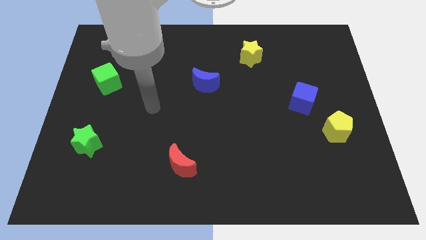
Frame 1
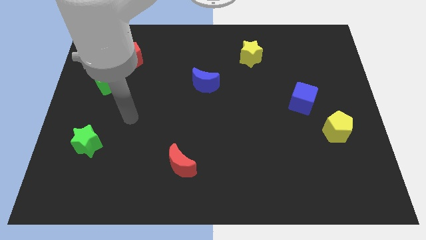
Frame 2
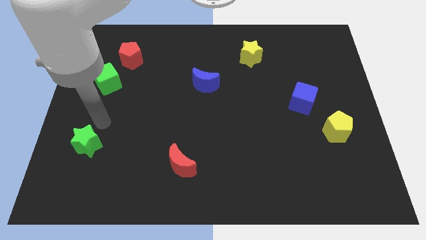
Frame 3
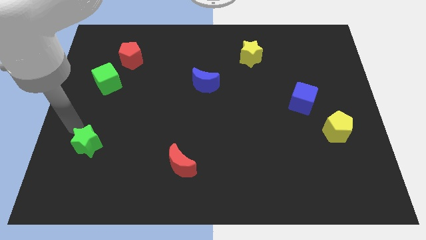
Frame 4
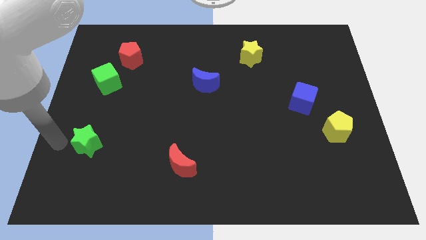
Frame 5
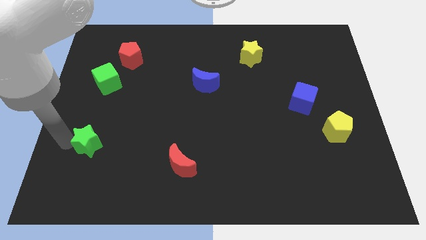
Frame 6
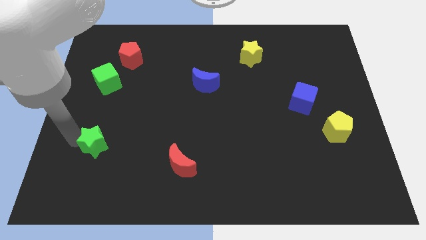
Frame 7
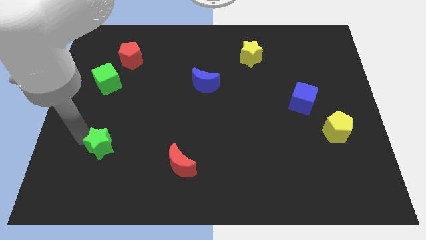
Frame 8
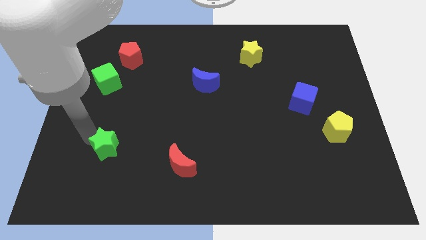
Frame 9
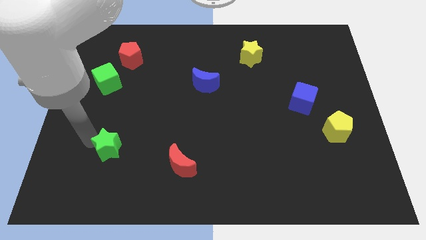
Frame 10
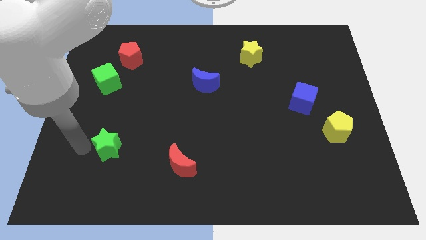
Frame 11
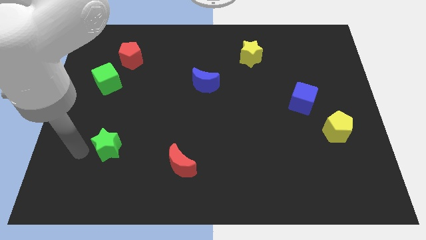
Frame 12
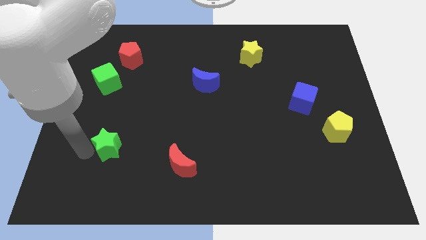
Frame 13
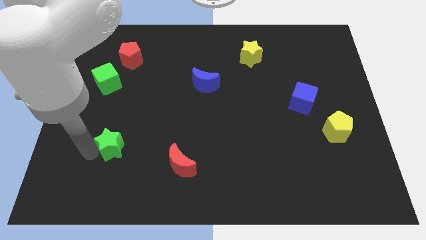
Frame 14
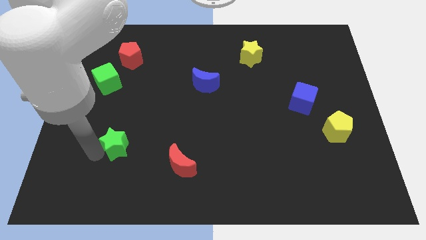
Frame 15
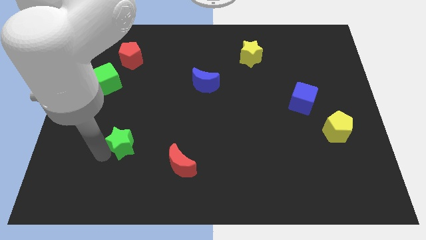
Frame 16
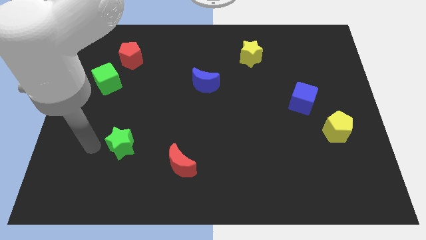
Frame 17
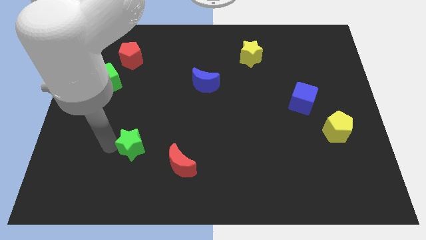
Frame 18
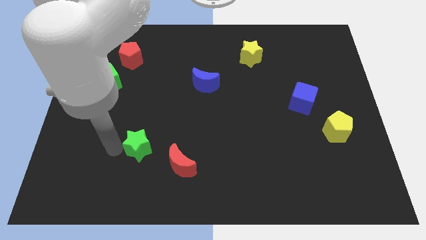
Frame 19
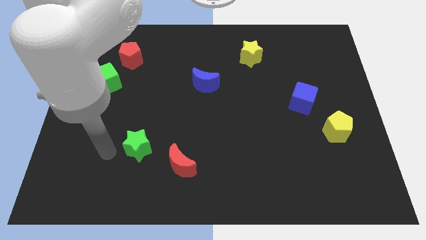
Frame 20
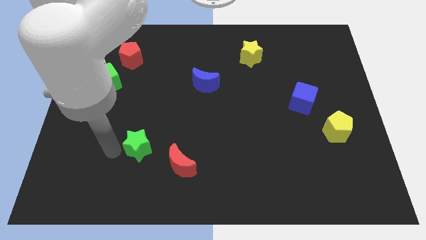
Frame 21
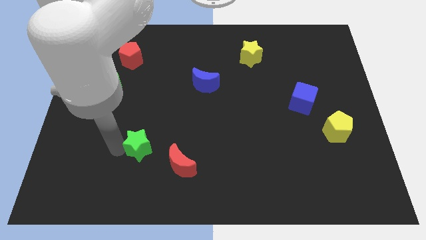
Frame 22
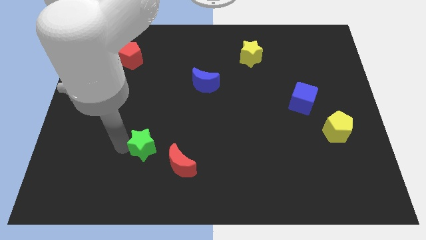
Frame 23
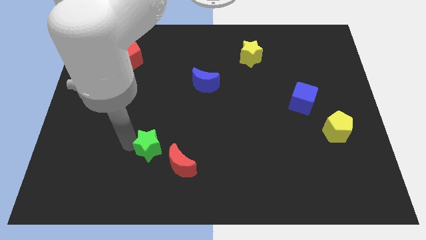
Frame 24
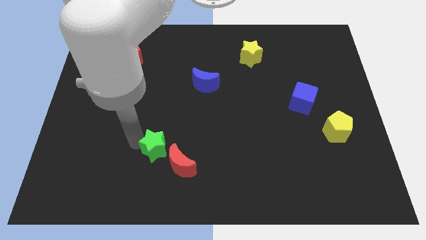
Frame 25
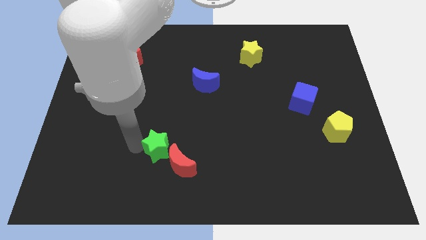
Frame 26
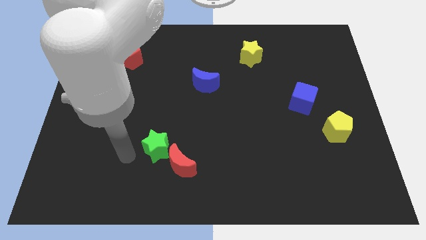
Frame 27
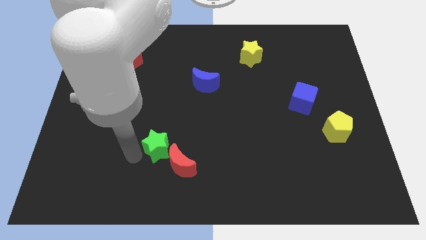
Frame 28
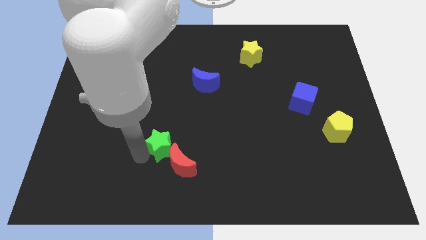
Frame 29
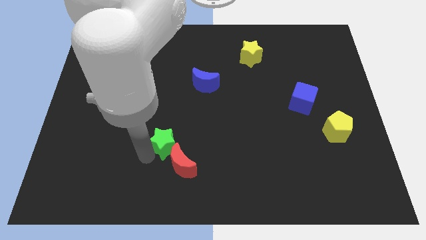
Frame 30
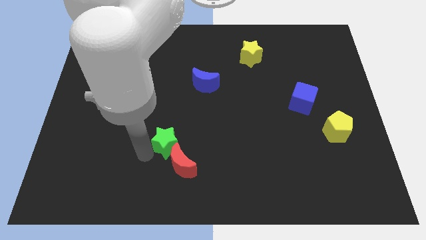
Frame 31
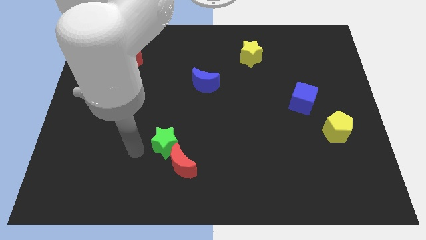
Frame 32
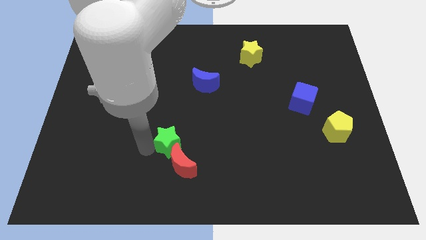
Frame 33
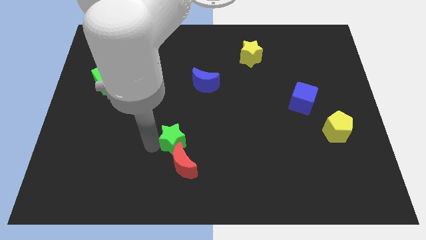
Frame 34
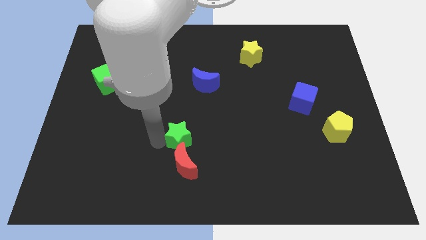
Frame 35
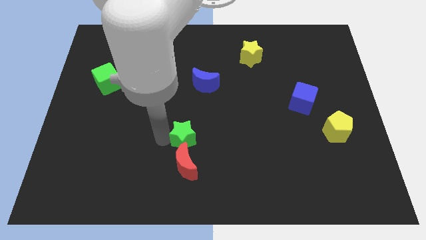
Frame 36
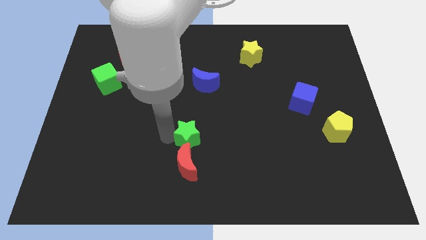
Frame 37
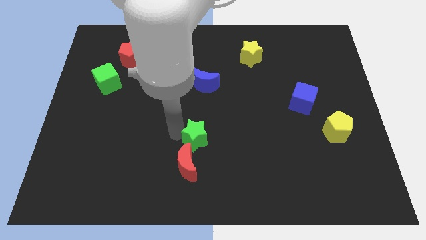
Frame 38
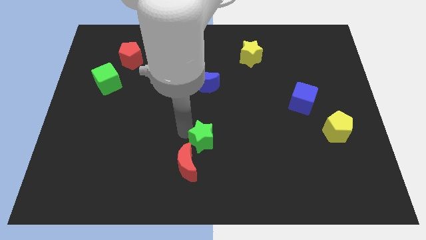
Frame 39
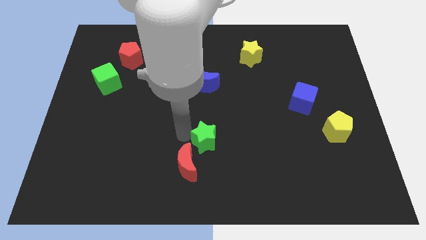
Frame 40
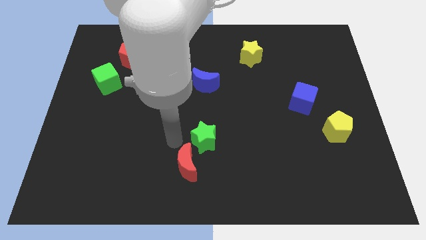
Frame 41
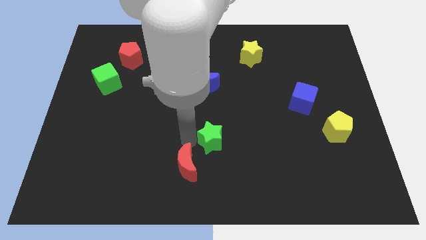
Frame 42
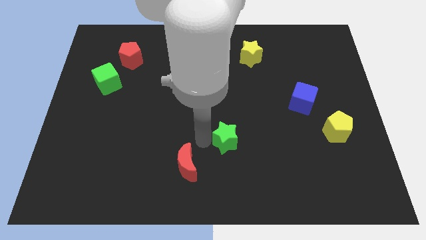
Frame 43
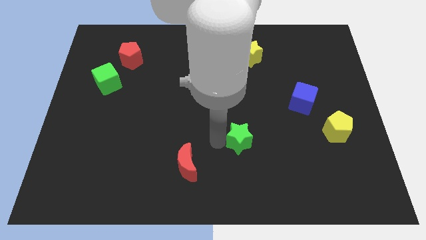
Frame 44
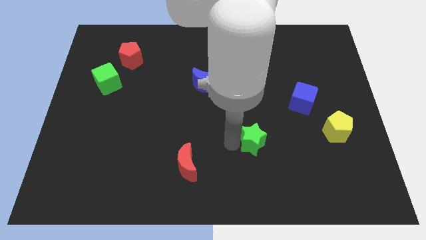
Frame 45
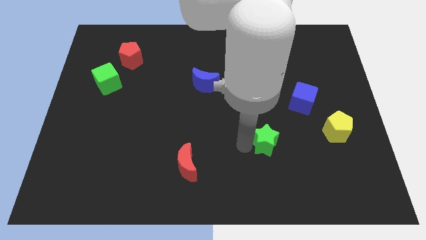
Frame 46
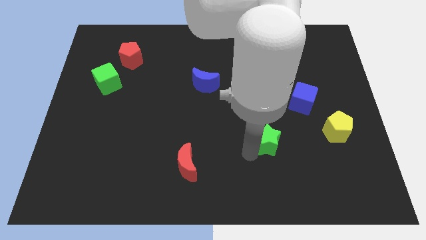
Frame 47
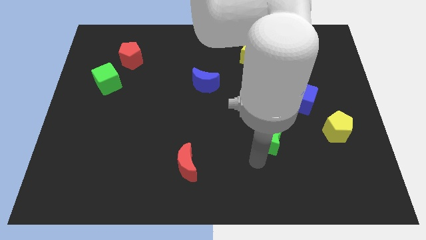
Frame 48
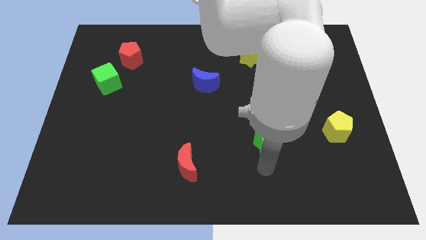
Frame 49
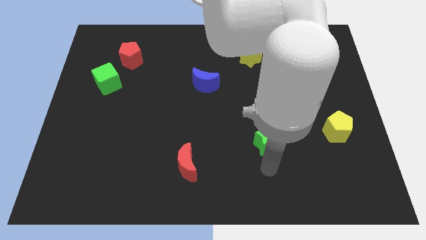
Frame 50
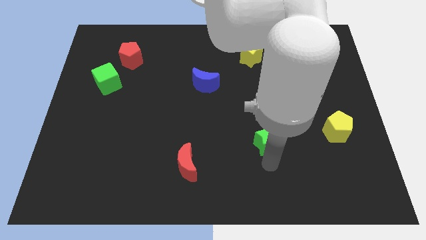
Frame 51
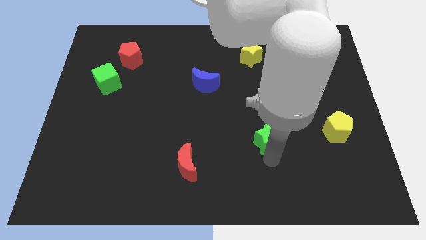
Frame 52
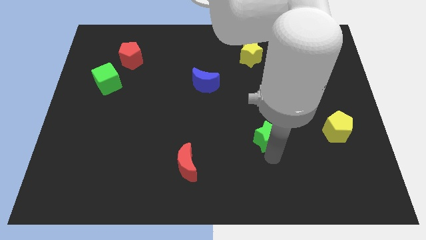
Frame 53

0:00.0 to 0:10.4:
move the green star just left of the yellow pentagon
